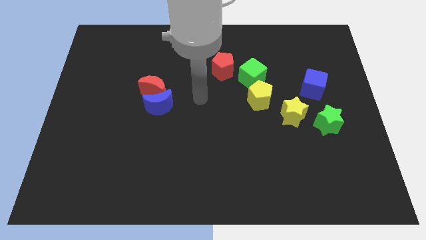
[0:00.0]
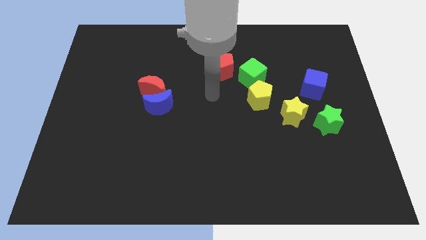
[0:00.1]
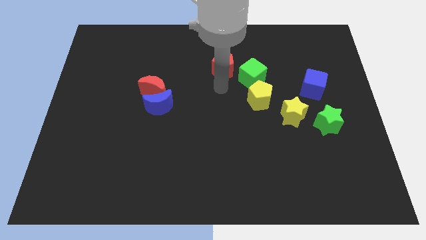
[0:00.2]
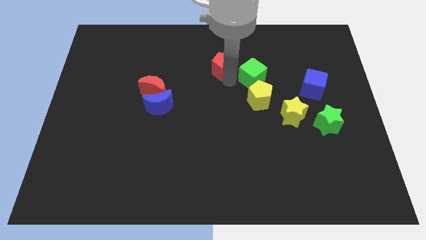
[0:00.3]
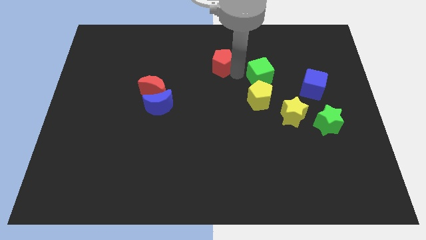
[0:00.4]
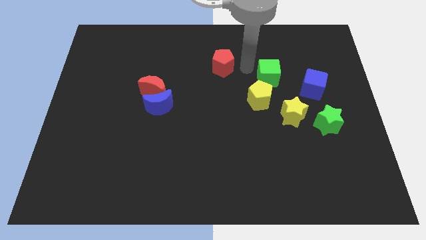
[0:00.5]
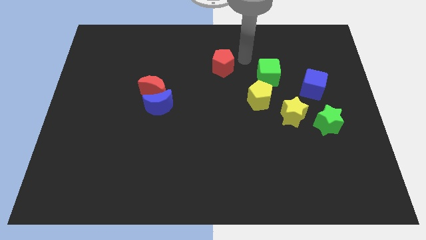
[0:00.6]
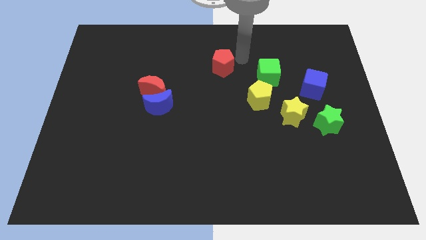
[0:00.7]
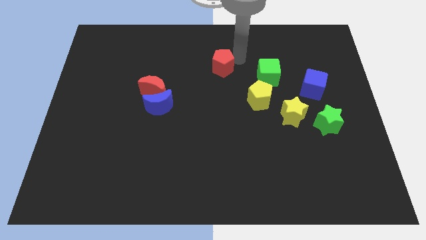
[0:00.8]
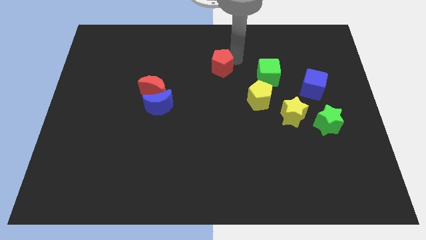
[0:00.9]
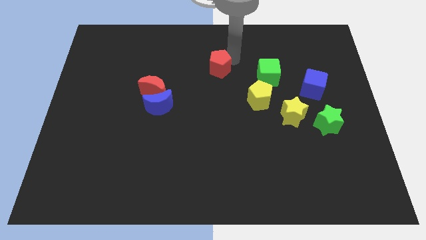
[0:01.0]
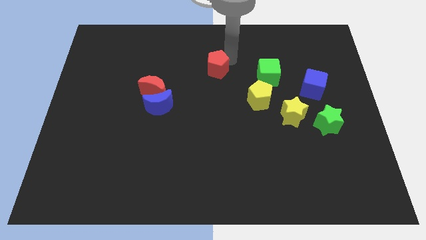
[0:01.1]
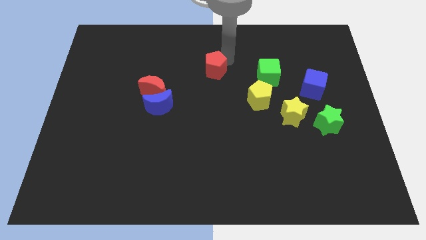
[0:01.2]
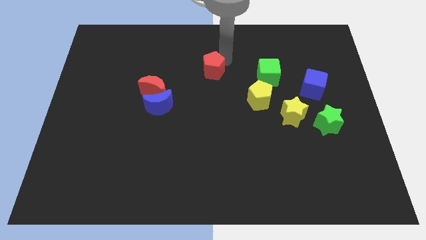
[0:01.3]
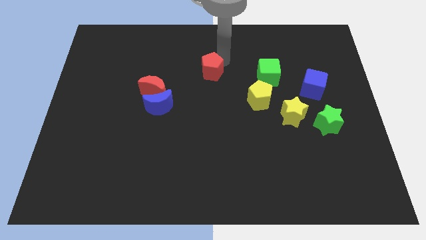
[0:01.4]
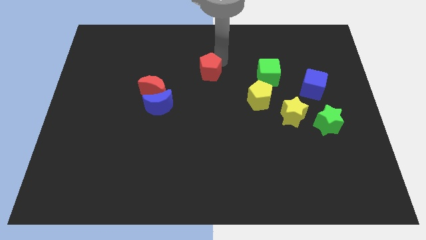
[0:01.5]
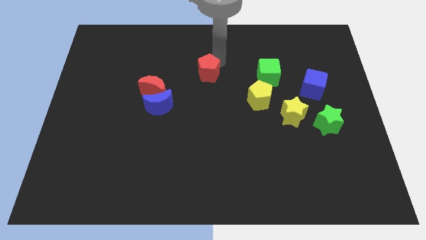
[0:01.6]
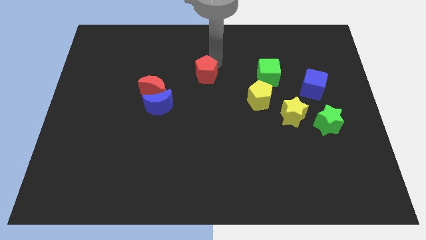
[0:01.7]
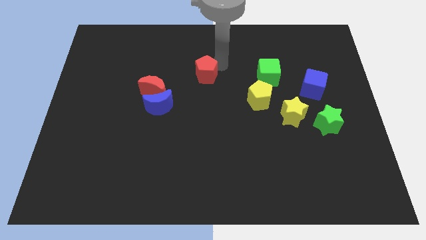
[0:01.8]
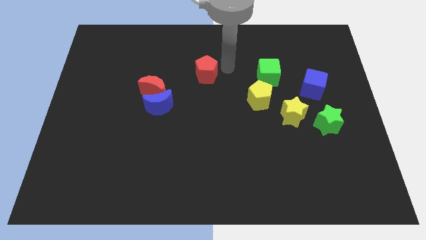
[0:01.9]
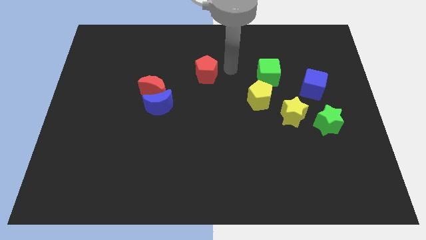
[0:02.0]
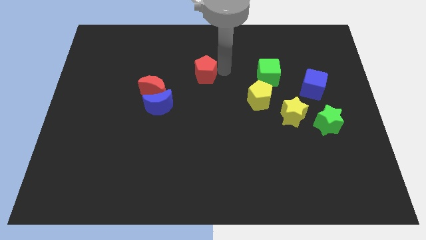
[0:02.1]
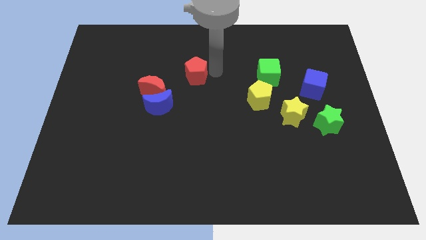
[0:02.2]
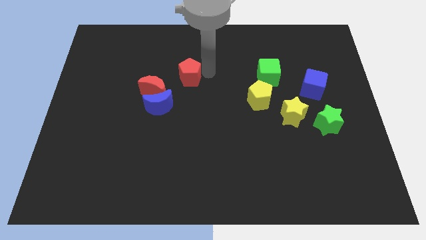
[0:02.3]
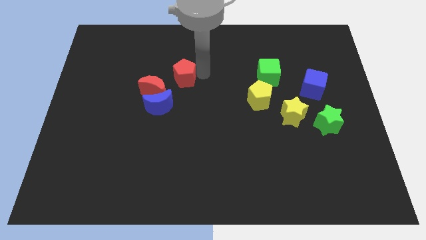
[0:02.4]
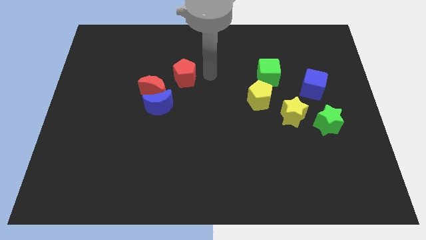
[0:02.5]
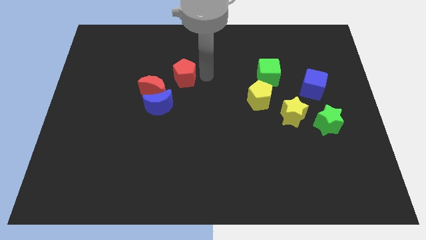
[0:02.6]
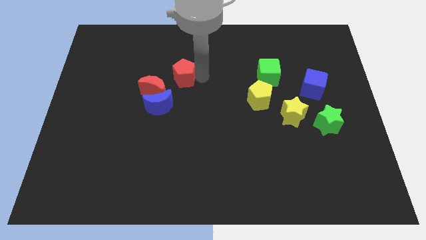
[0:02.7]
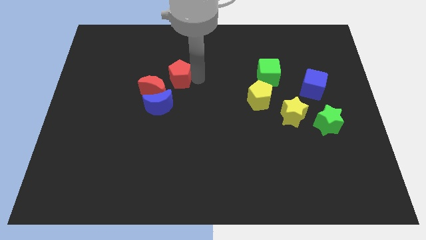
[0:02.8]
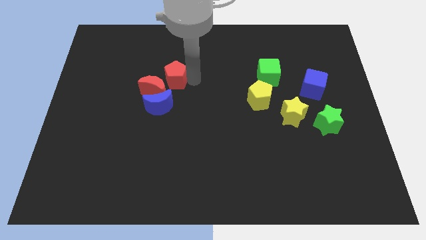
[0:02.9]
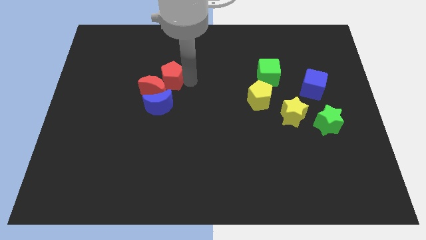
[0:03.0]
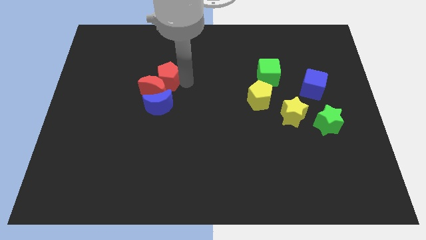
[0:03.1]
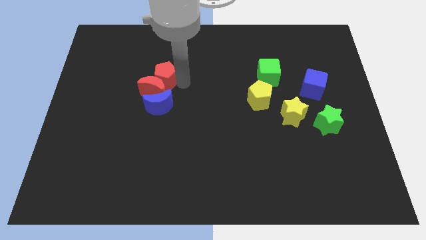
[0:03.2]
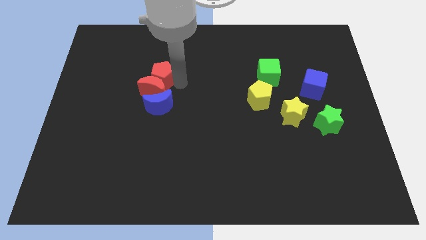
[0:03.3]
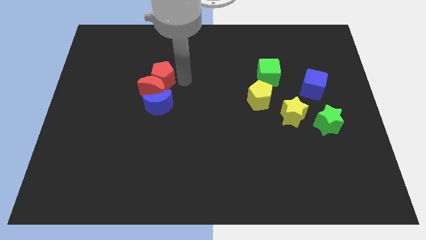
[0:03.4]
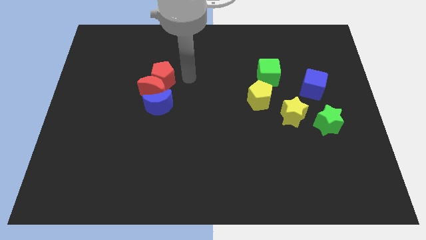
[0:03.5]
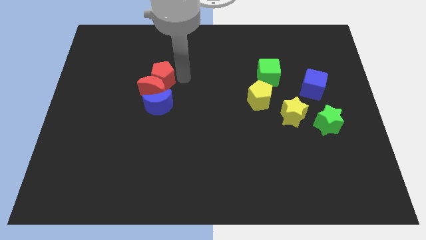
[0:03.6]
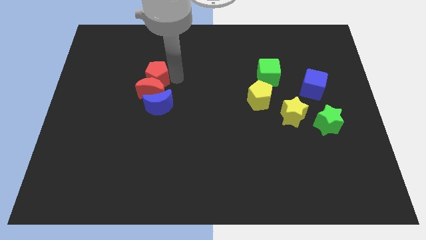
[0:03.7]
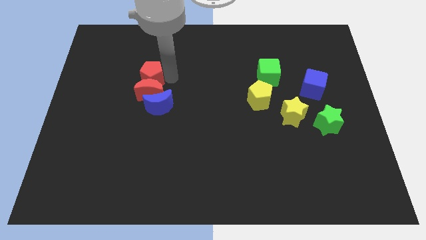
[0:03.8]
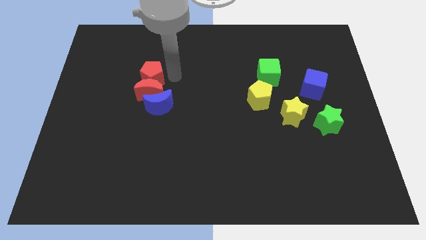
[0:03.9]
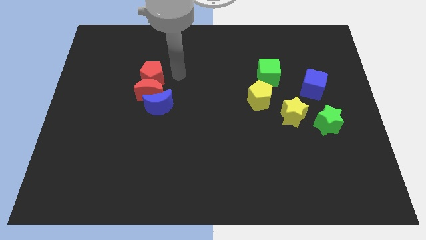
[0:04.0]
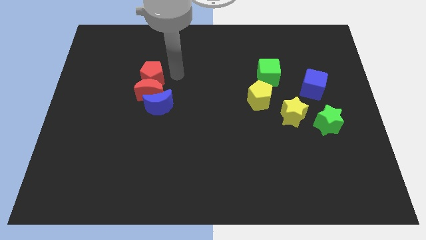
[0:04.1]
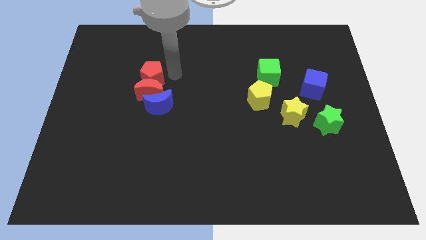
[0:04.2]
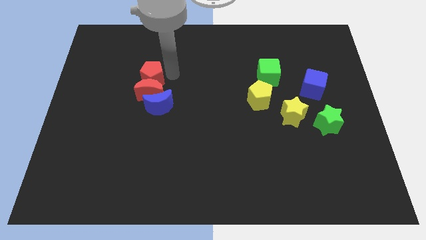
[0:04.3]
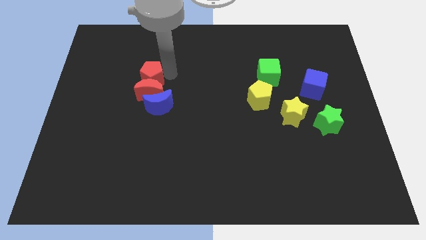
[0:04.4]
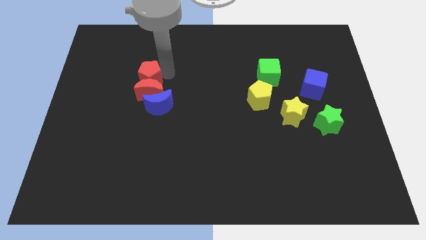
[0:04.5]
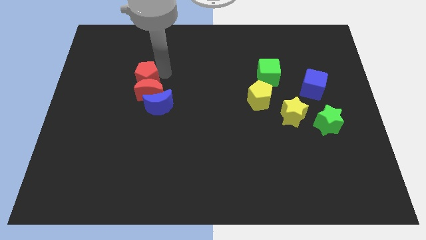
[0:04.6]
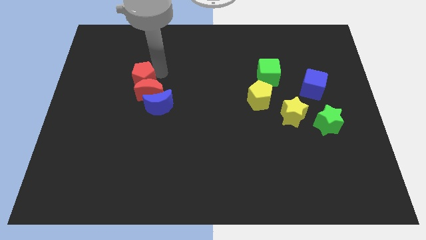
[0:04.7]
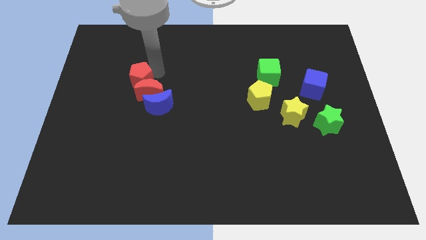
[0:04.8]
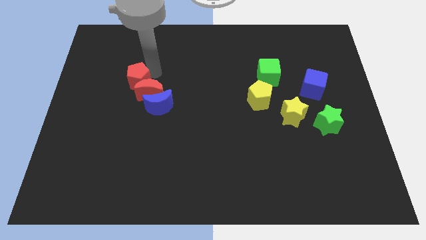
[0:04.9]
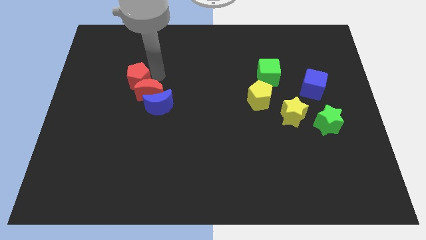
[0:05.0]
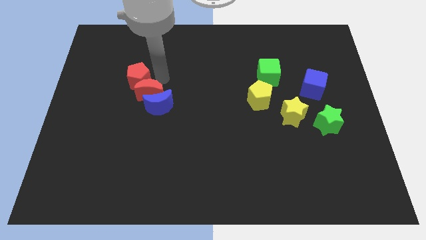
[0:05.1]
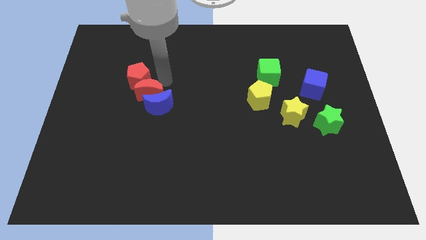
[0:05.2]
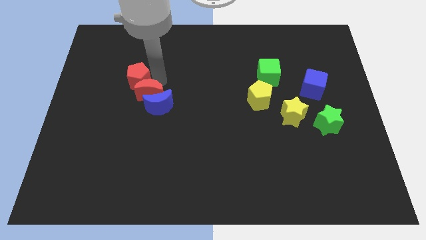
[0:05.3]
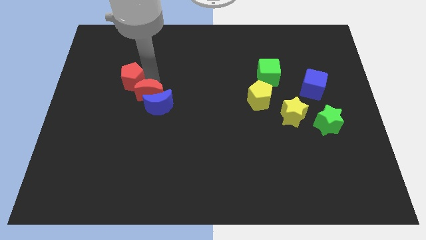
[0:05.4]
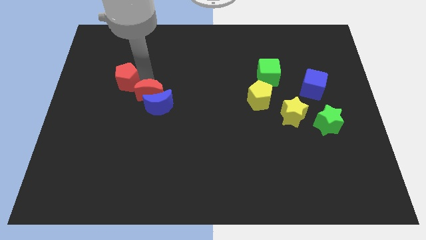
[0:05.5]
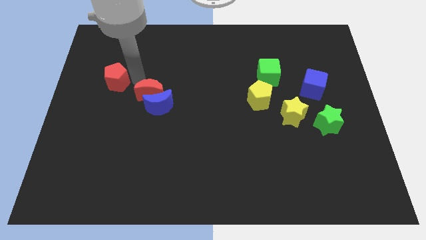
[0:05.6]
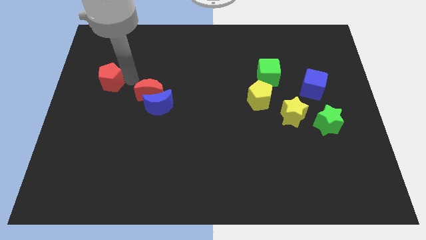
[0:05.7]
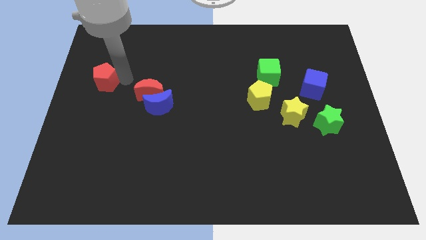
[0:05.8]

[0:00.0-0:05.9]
slide the red pentagon to the left side of the board

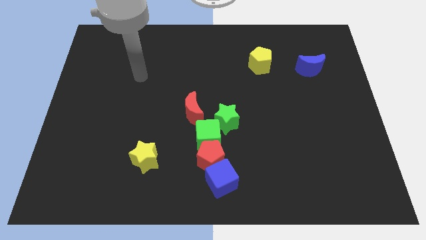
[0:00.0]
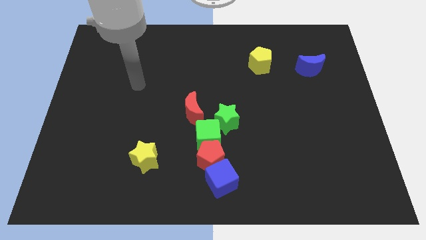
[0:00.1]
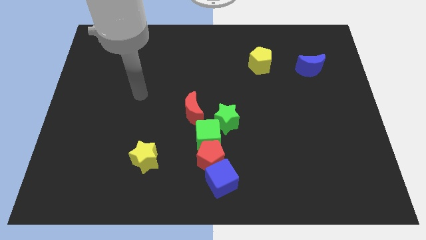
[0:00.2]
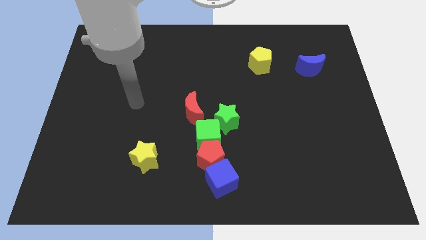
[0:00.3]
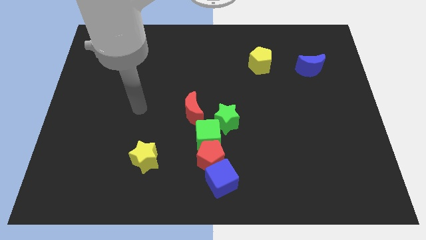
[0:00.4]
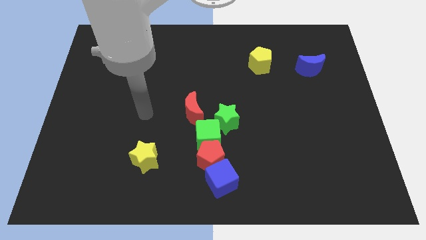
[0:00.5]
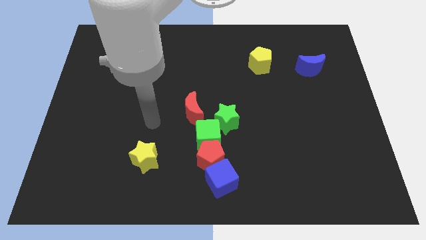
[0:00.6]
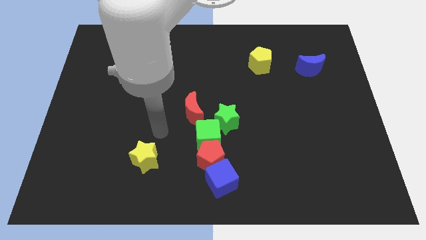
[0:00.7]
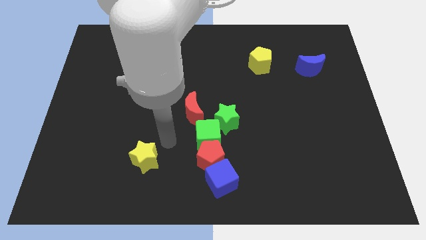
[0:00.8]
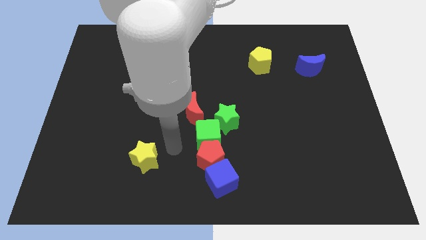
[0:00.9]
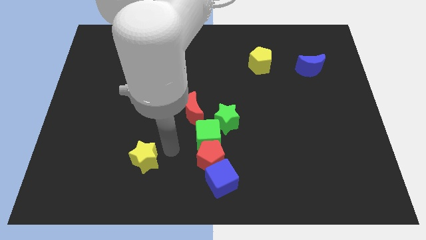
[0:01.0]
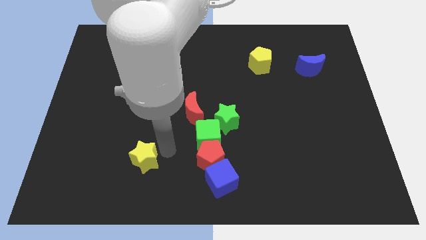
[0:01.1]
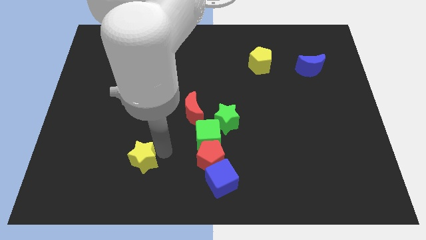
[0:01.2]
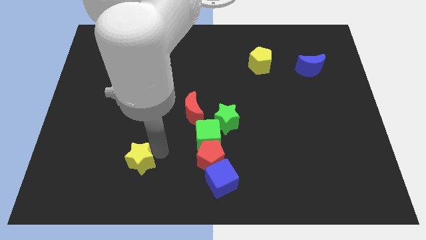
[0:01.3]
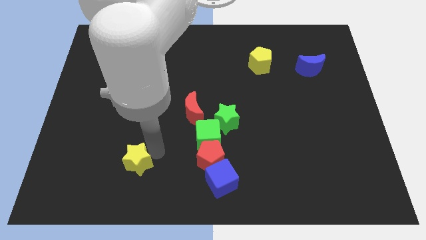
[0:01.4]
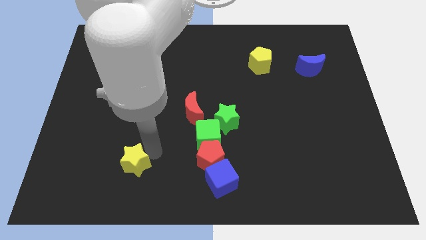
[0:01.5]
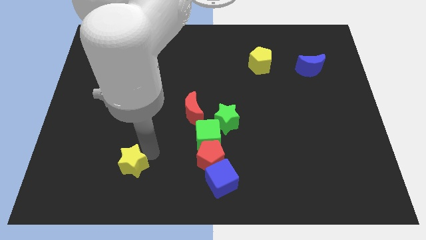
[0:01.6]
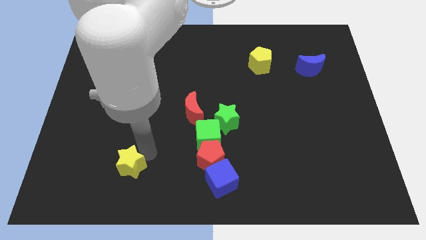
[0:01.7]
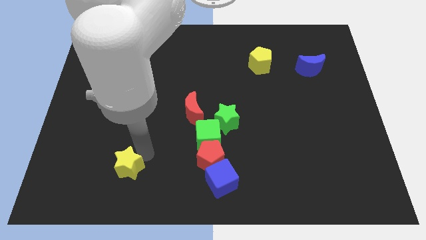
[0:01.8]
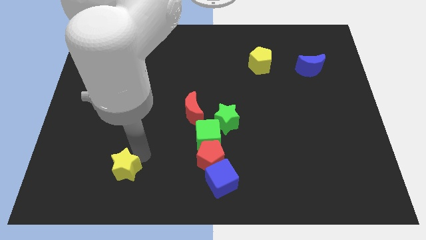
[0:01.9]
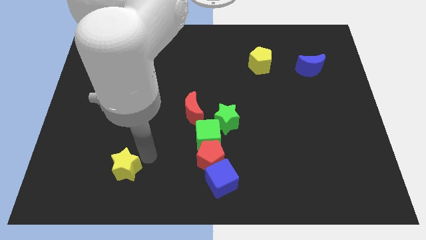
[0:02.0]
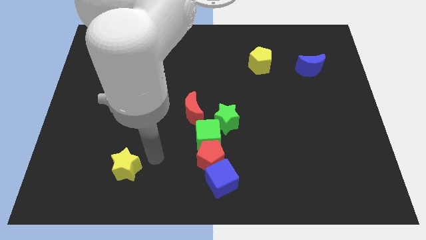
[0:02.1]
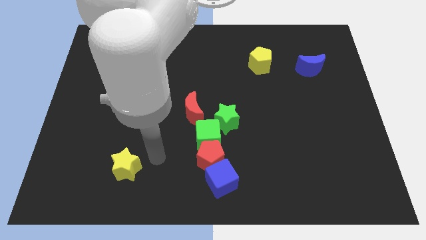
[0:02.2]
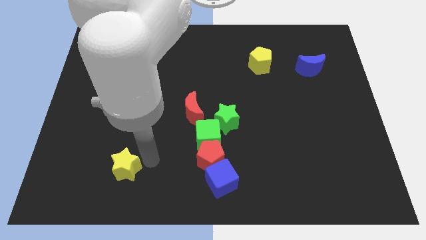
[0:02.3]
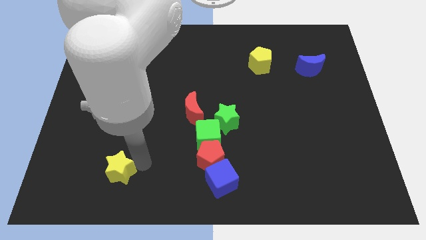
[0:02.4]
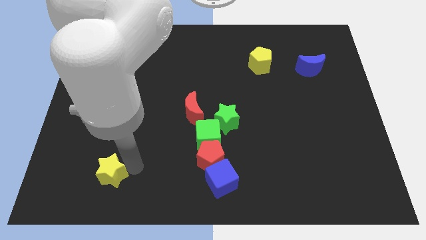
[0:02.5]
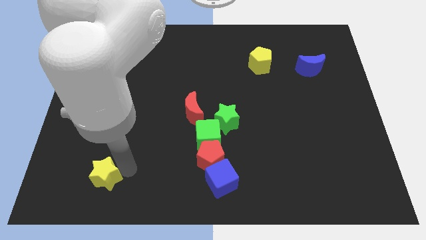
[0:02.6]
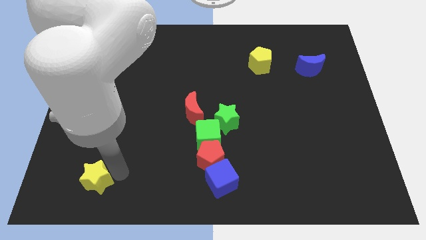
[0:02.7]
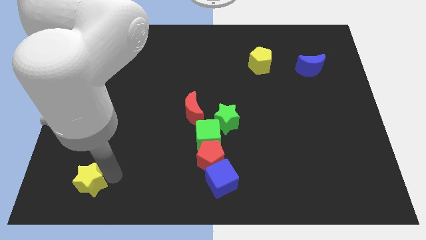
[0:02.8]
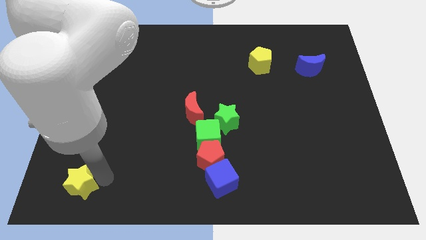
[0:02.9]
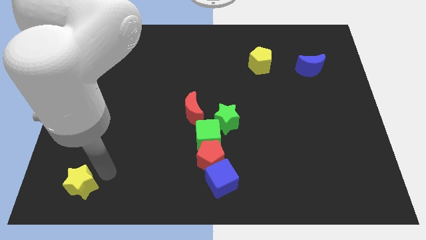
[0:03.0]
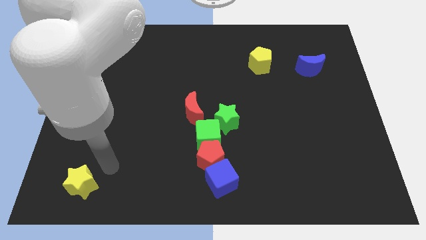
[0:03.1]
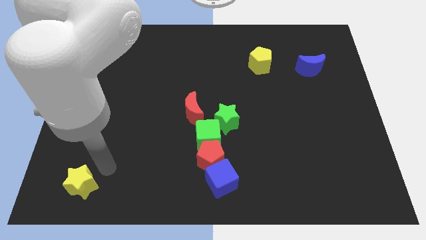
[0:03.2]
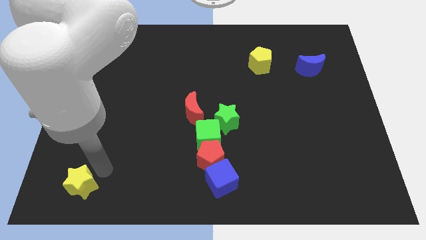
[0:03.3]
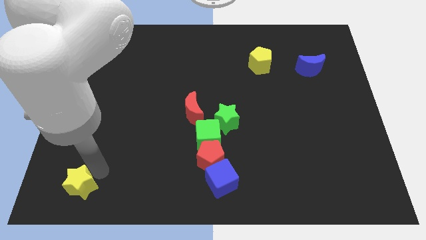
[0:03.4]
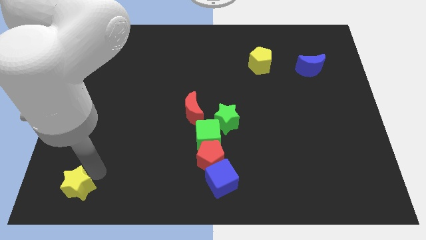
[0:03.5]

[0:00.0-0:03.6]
slide the yellow star to the bottom left
